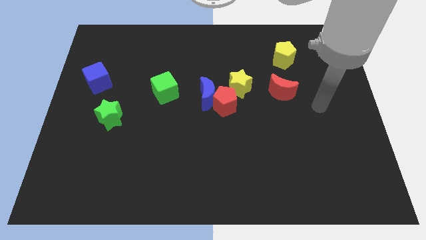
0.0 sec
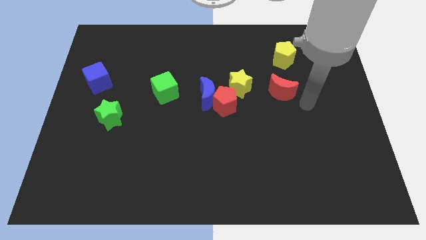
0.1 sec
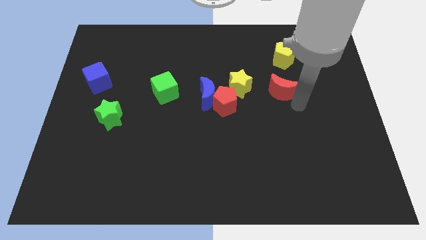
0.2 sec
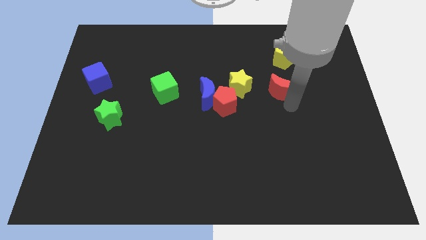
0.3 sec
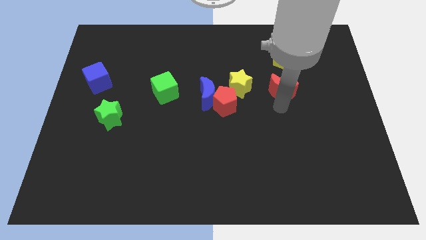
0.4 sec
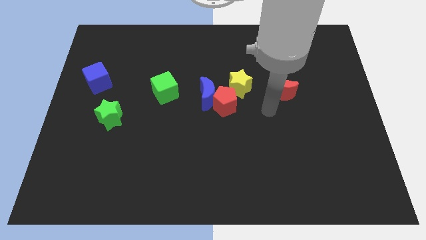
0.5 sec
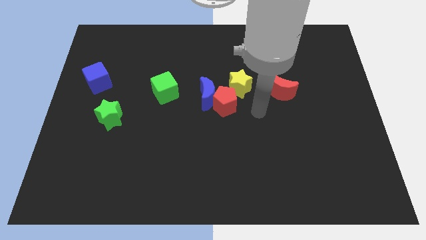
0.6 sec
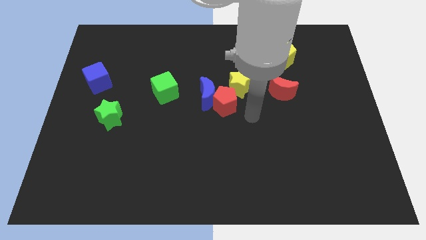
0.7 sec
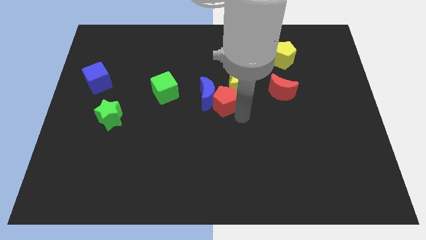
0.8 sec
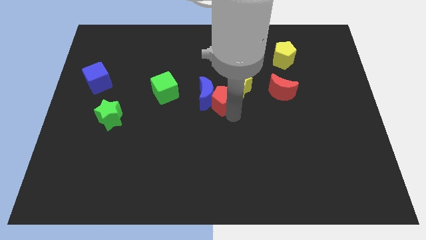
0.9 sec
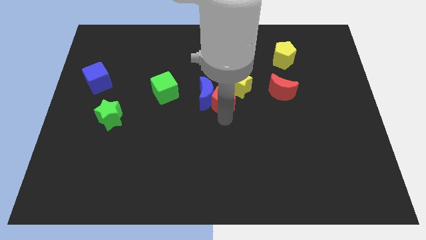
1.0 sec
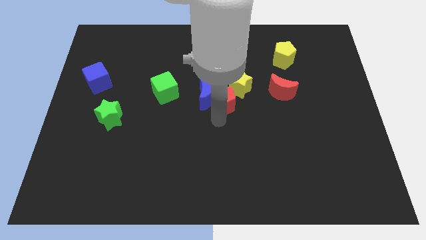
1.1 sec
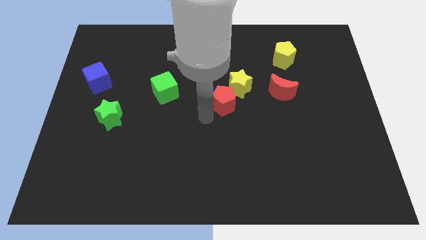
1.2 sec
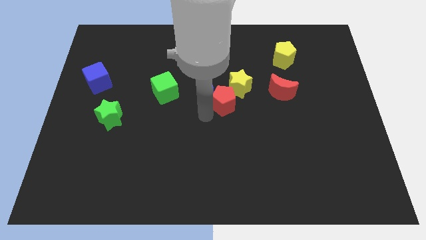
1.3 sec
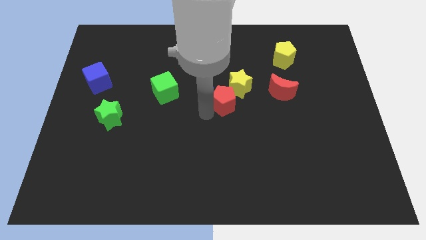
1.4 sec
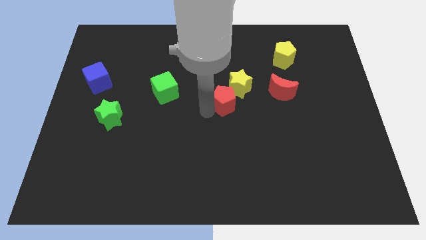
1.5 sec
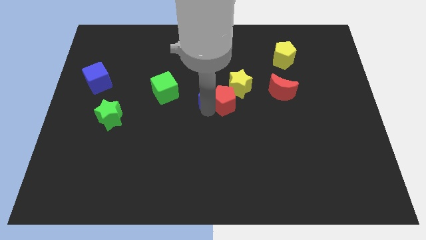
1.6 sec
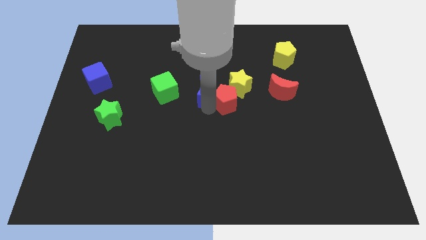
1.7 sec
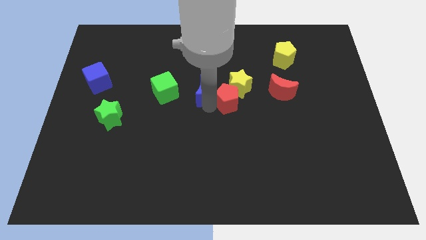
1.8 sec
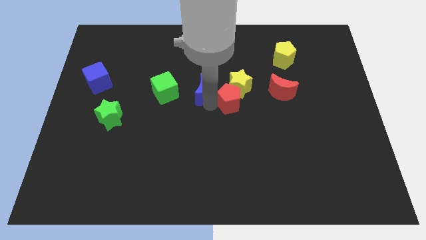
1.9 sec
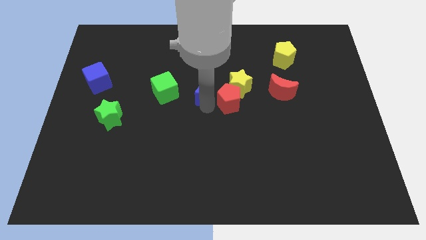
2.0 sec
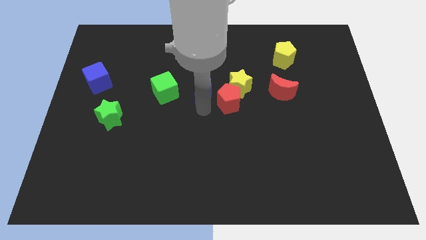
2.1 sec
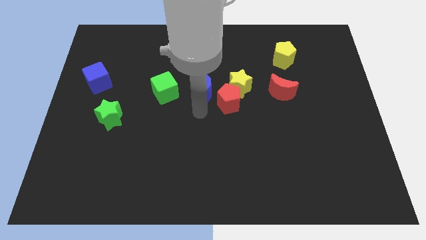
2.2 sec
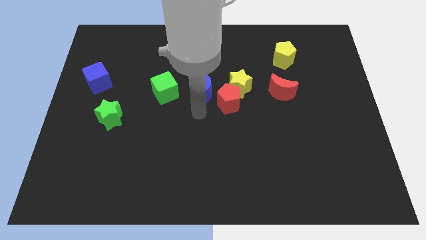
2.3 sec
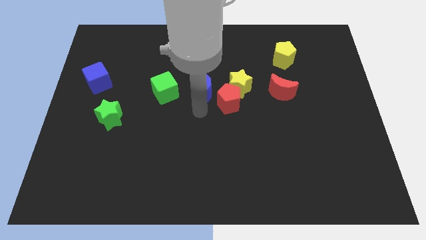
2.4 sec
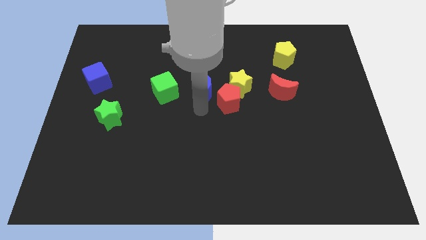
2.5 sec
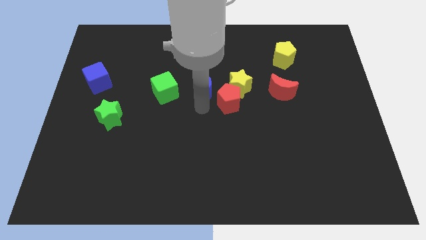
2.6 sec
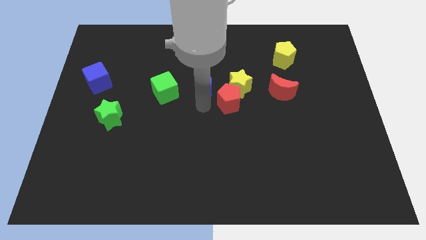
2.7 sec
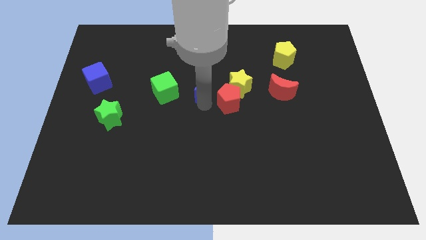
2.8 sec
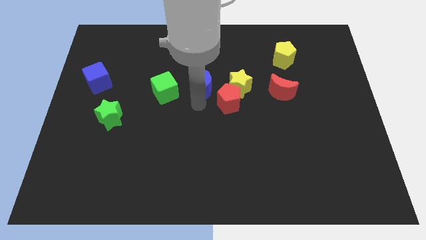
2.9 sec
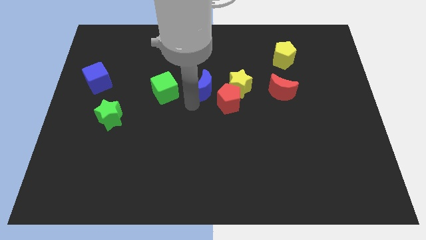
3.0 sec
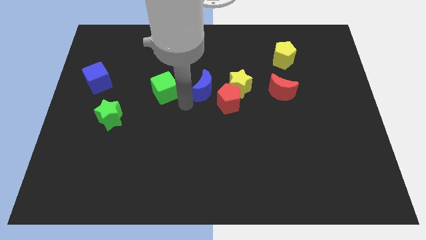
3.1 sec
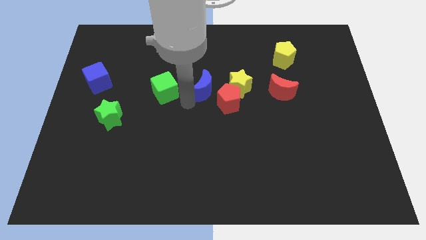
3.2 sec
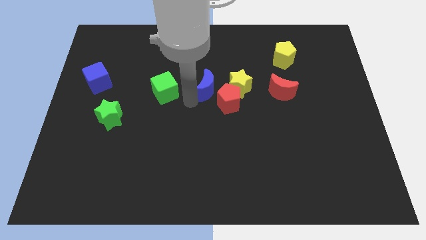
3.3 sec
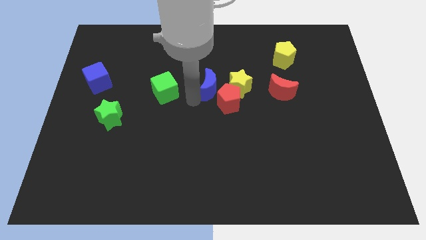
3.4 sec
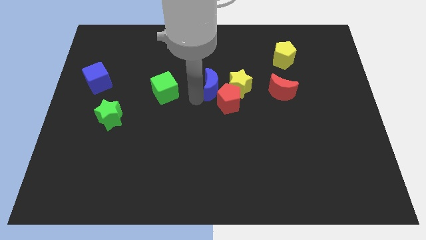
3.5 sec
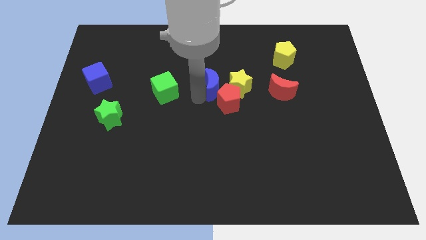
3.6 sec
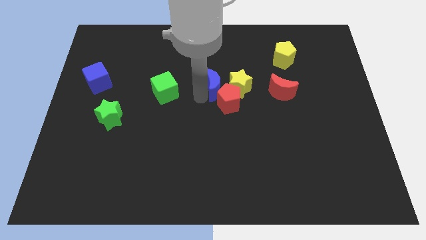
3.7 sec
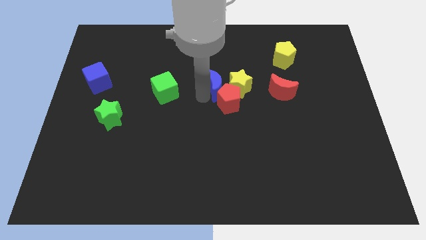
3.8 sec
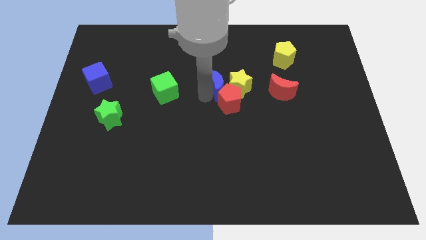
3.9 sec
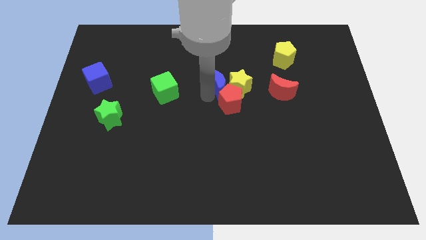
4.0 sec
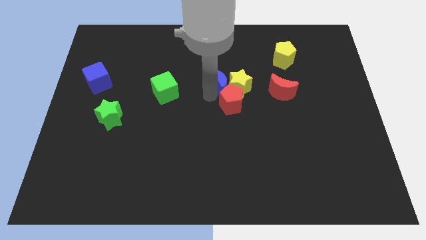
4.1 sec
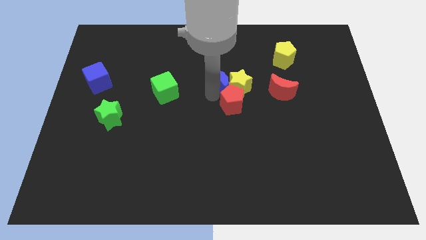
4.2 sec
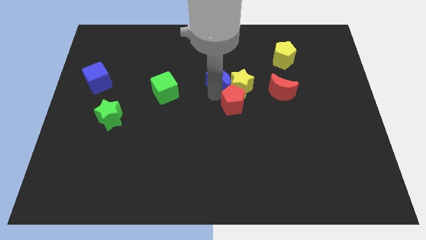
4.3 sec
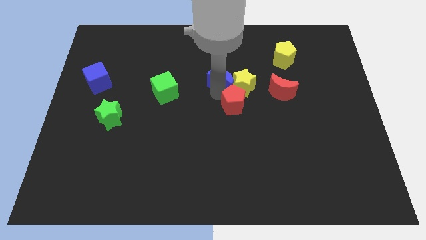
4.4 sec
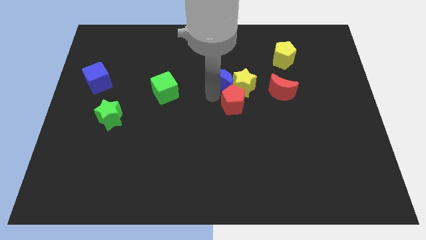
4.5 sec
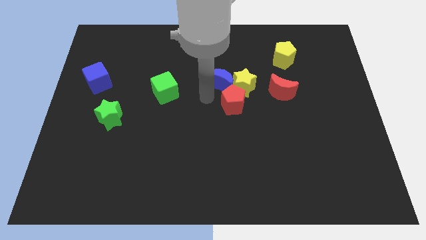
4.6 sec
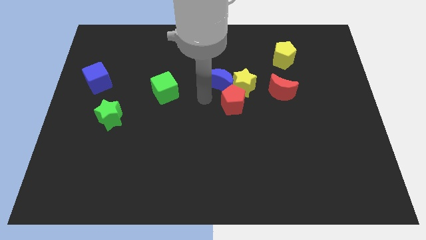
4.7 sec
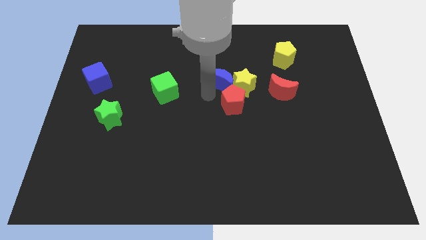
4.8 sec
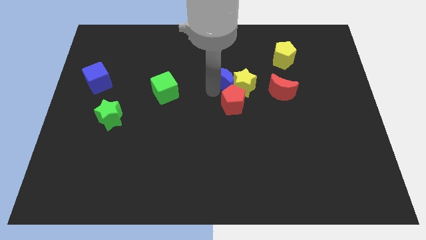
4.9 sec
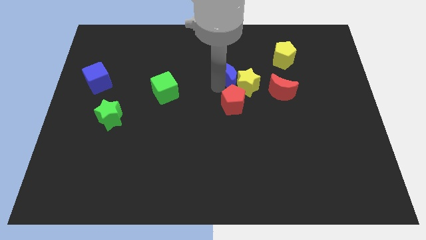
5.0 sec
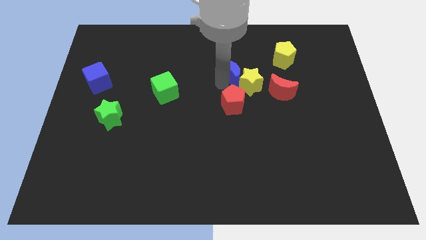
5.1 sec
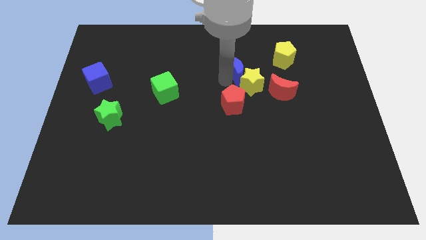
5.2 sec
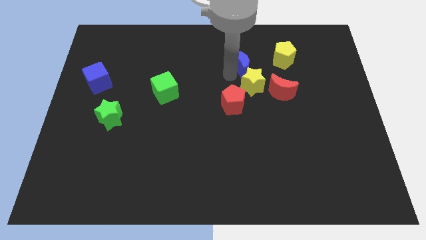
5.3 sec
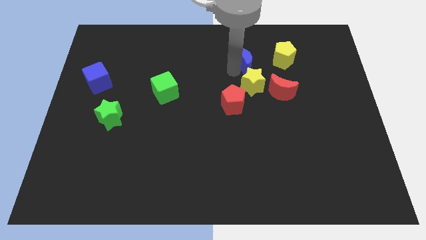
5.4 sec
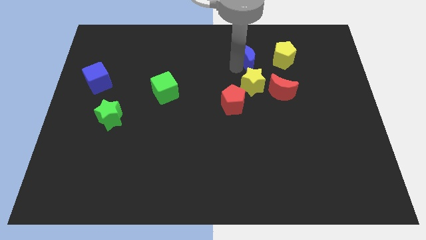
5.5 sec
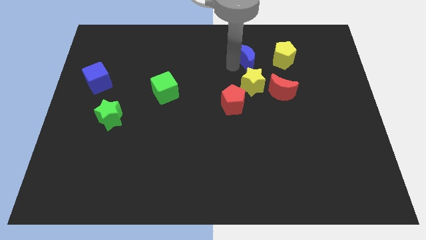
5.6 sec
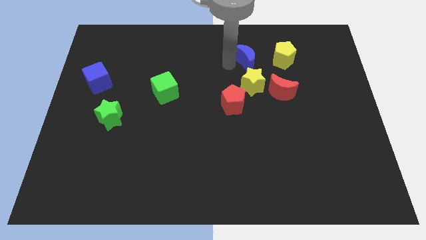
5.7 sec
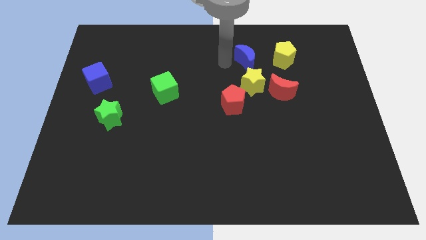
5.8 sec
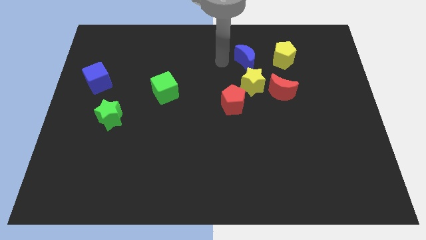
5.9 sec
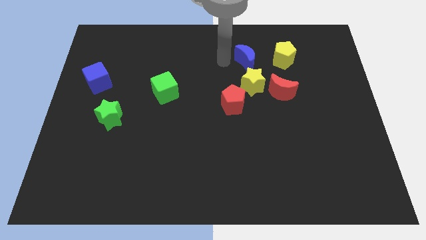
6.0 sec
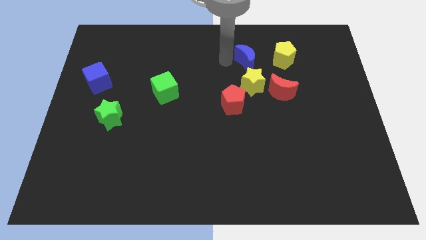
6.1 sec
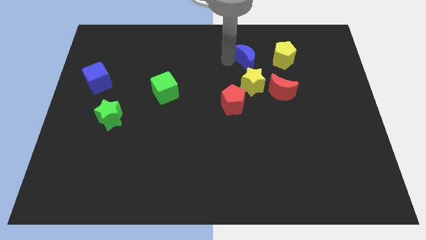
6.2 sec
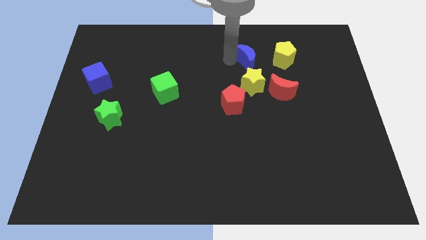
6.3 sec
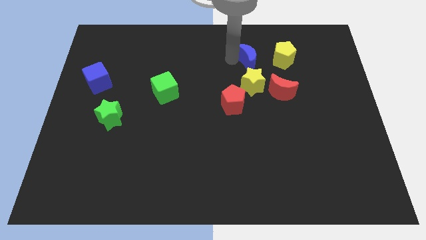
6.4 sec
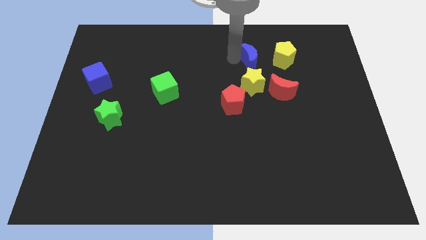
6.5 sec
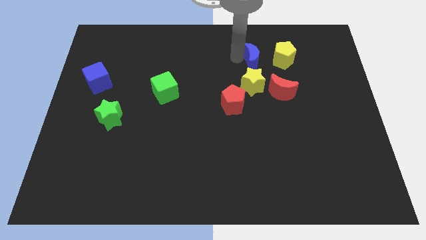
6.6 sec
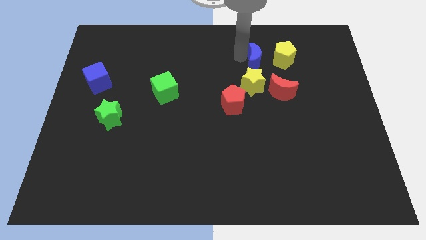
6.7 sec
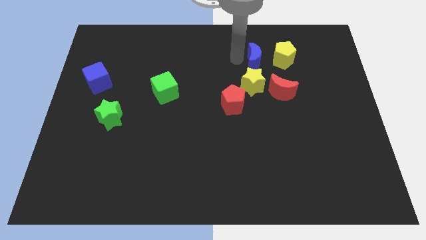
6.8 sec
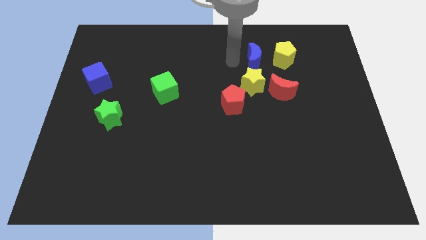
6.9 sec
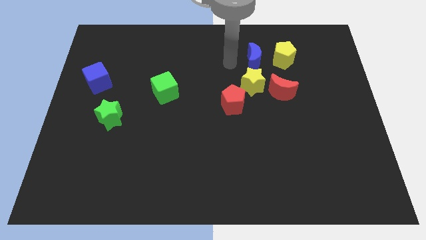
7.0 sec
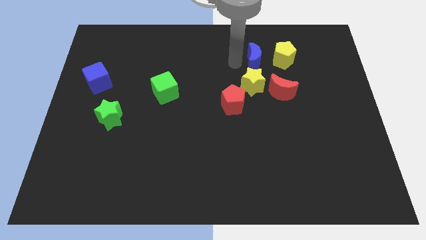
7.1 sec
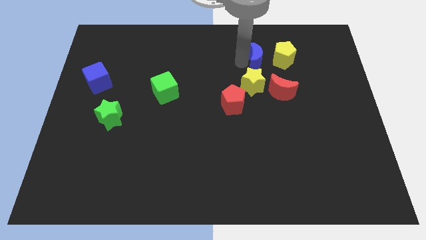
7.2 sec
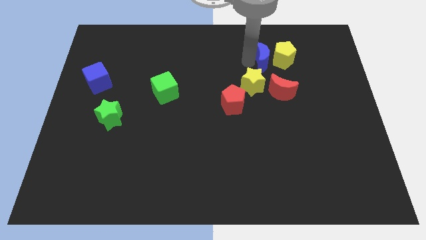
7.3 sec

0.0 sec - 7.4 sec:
push the blue moon next to the yellow pentagon
